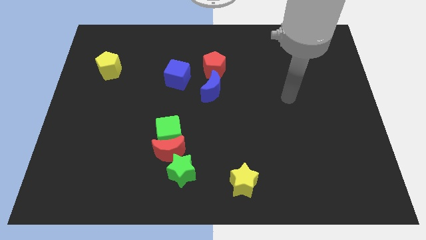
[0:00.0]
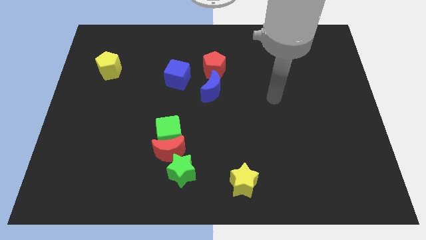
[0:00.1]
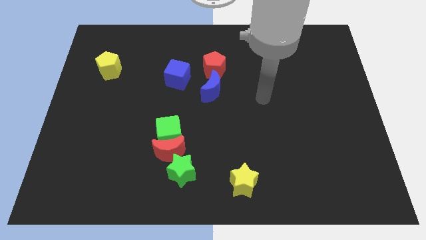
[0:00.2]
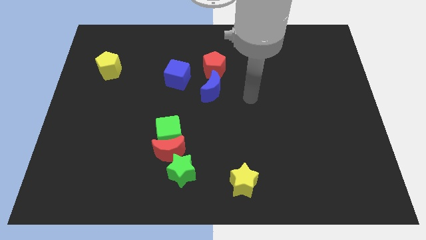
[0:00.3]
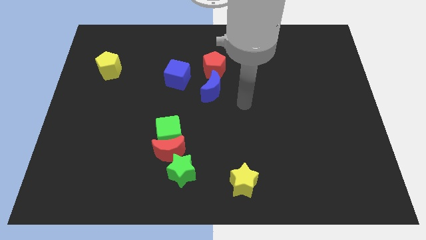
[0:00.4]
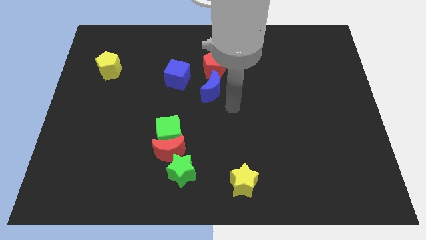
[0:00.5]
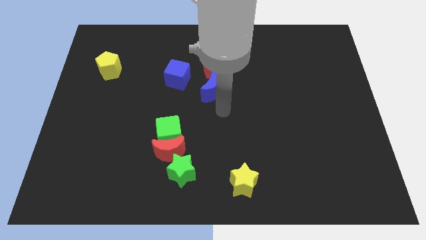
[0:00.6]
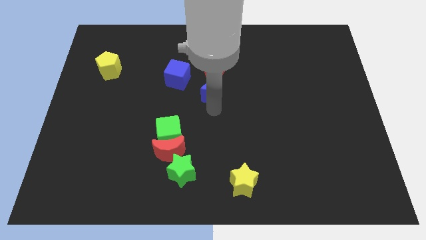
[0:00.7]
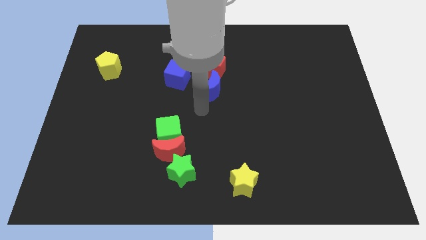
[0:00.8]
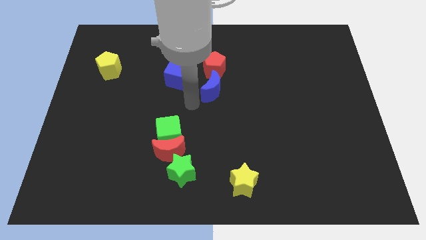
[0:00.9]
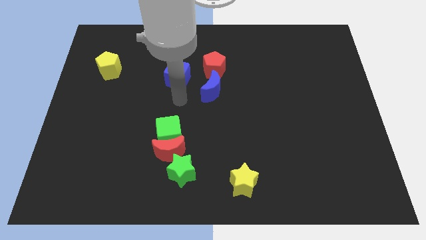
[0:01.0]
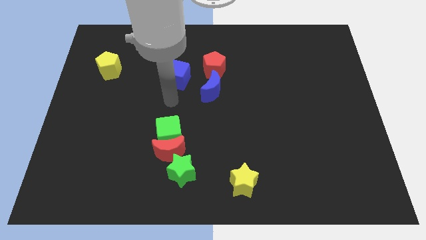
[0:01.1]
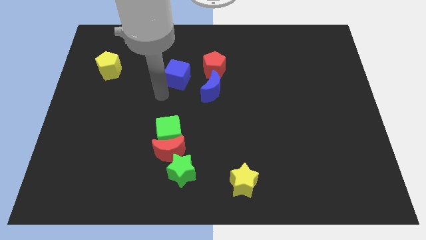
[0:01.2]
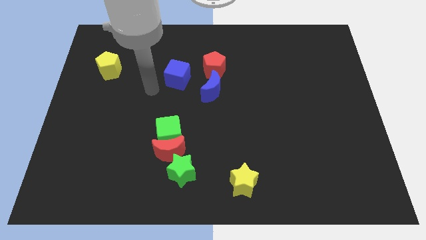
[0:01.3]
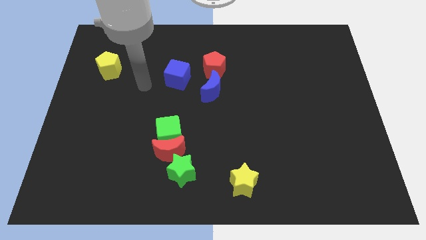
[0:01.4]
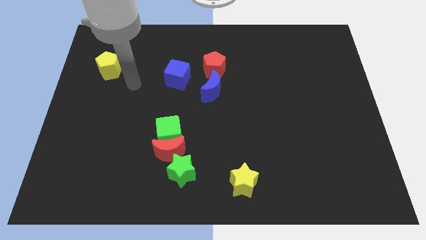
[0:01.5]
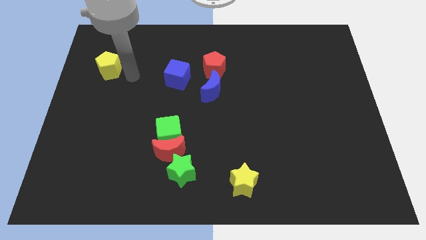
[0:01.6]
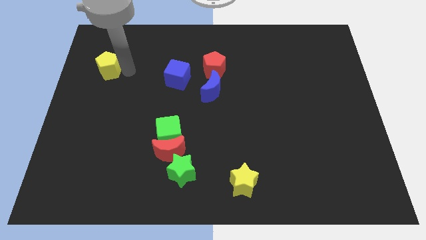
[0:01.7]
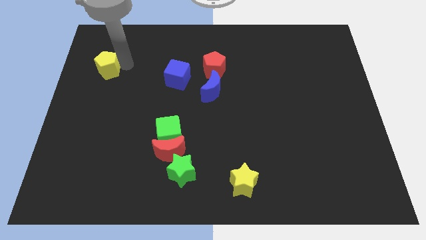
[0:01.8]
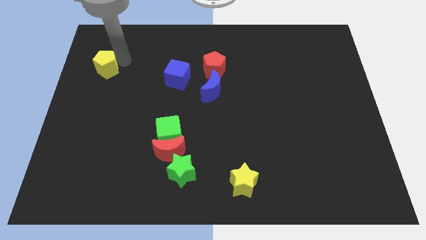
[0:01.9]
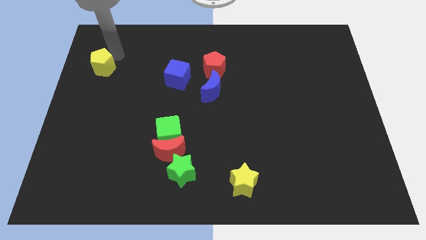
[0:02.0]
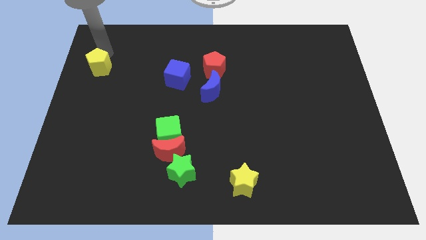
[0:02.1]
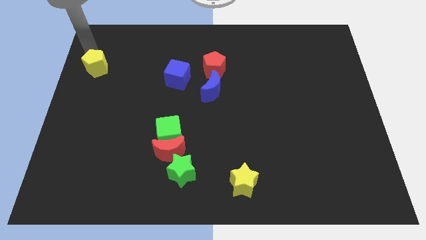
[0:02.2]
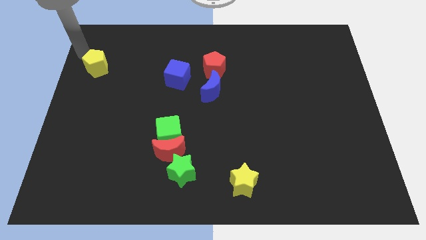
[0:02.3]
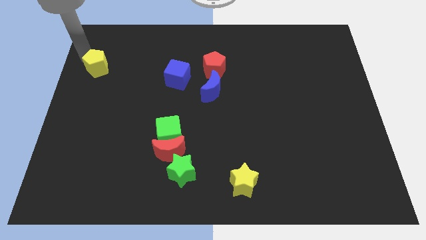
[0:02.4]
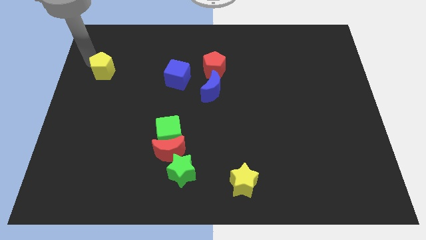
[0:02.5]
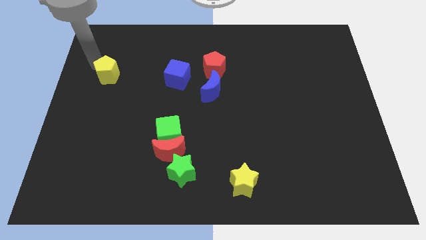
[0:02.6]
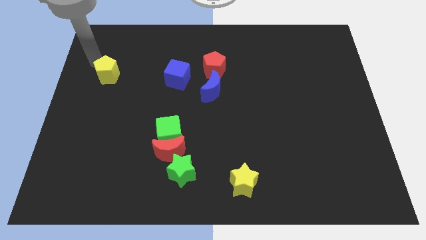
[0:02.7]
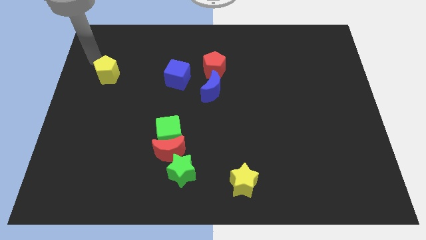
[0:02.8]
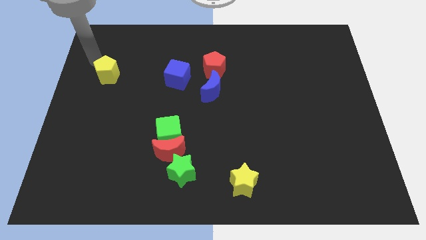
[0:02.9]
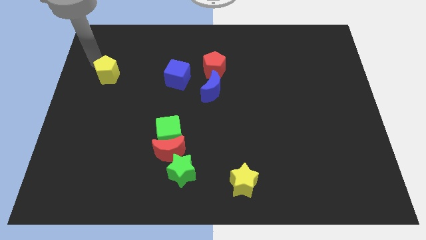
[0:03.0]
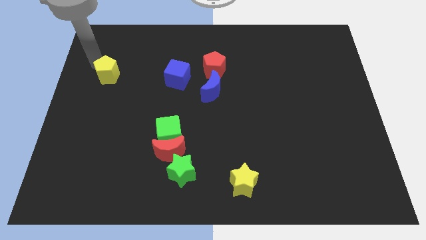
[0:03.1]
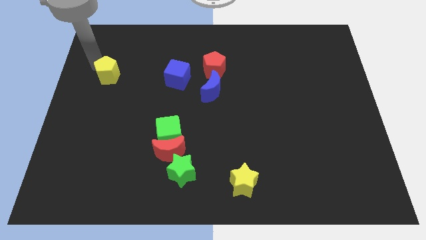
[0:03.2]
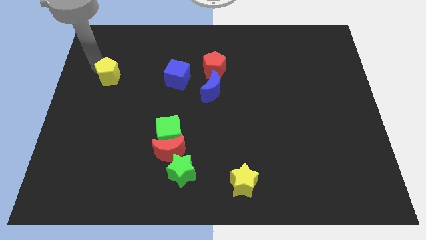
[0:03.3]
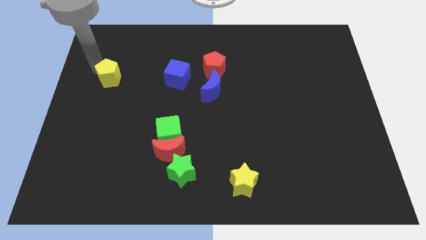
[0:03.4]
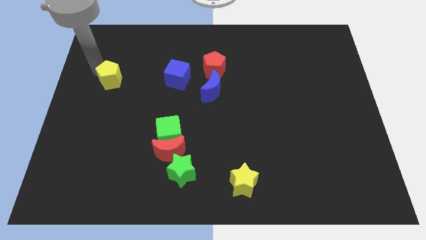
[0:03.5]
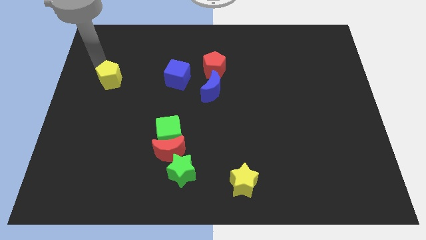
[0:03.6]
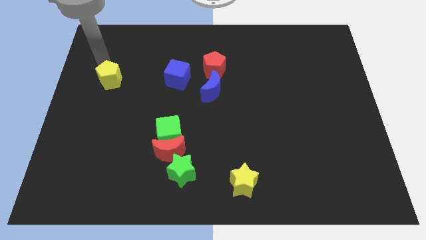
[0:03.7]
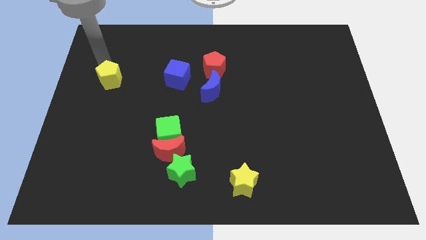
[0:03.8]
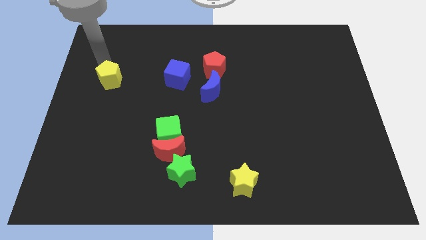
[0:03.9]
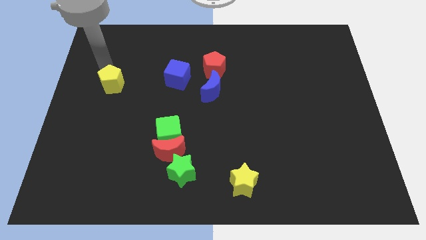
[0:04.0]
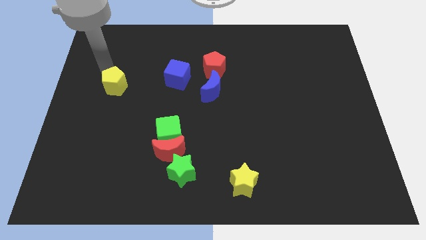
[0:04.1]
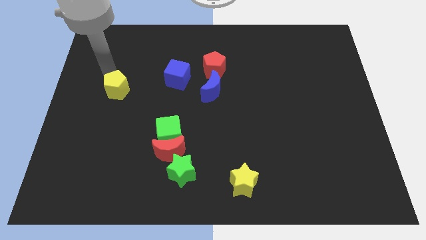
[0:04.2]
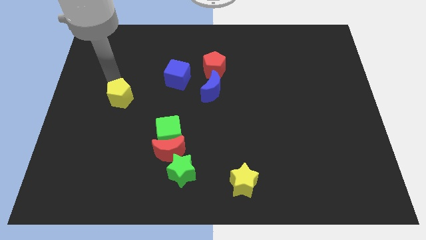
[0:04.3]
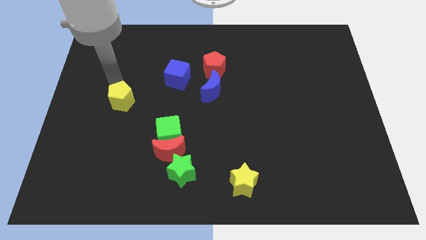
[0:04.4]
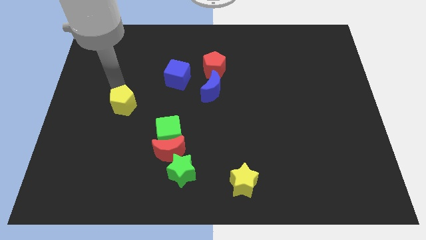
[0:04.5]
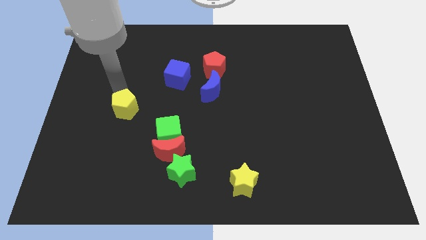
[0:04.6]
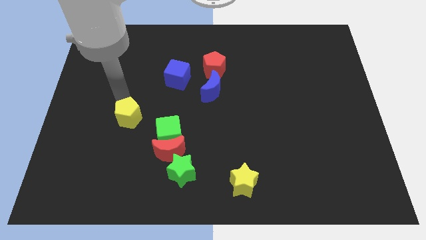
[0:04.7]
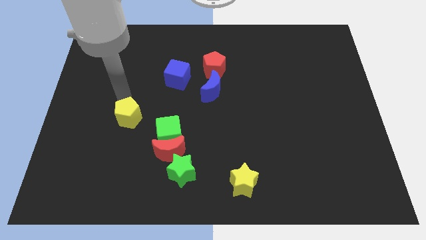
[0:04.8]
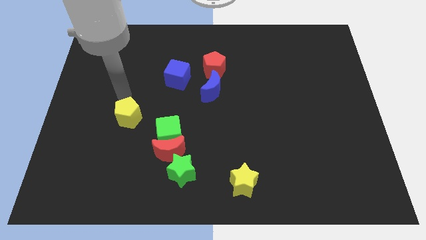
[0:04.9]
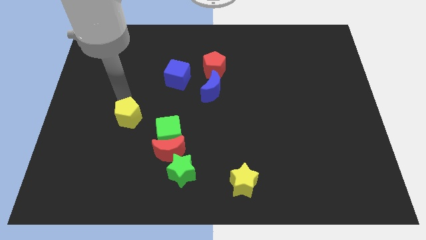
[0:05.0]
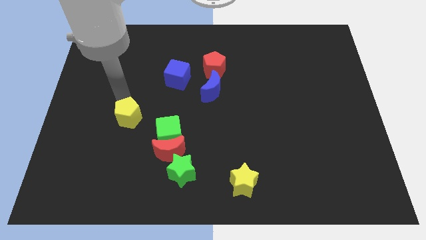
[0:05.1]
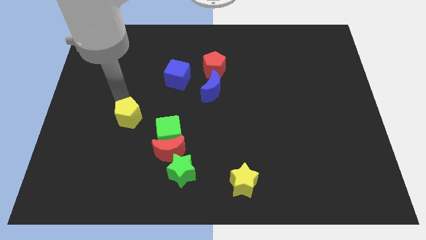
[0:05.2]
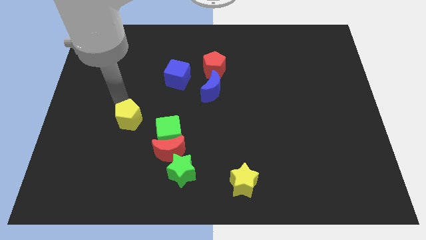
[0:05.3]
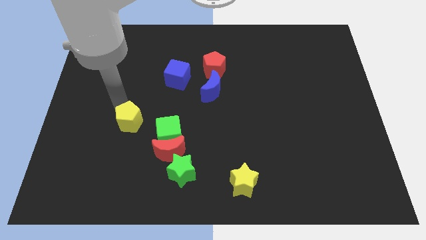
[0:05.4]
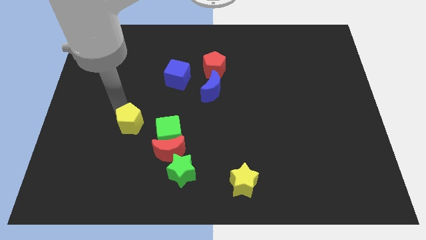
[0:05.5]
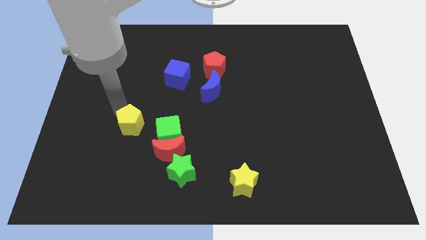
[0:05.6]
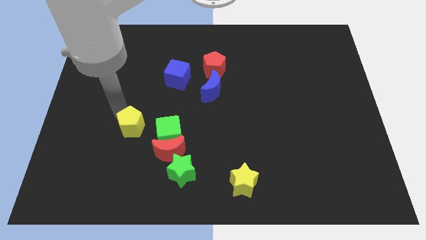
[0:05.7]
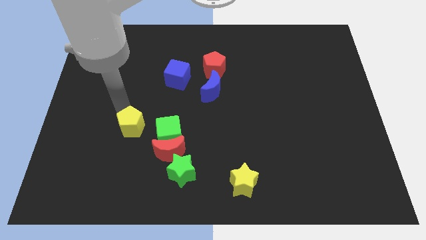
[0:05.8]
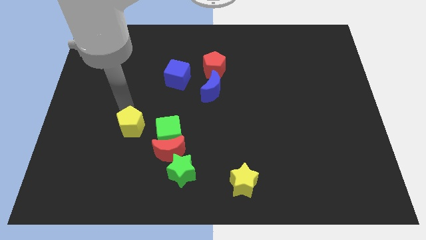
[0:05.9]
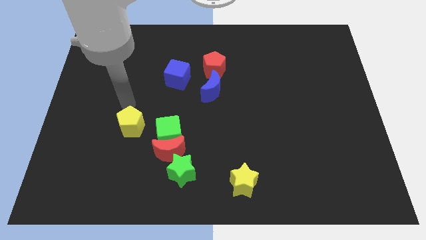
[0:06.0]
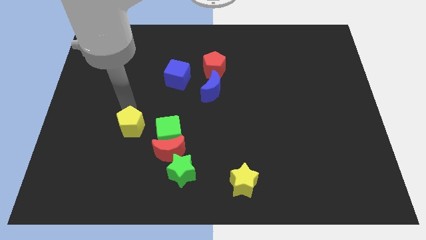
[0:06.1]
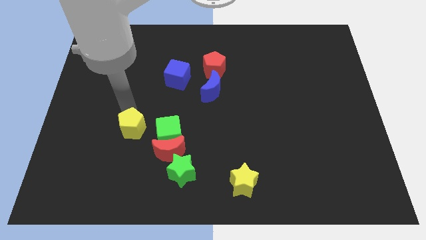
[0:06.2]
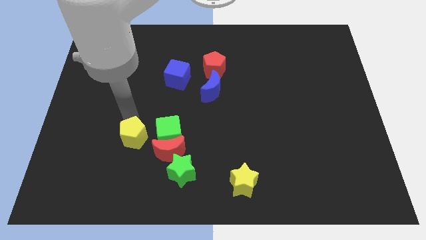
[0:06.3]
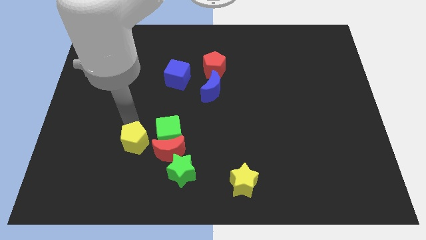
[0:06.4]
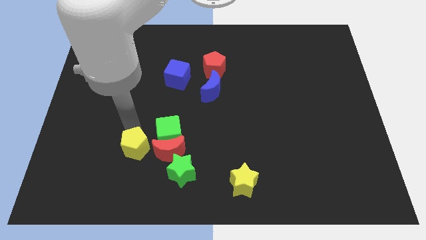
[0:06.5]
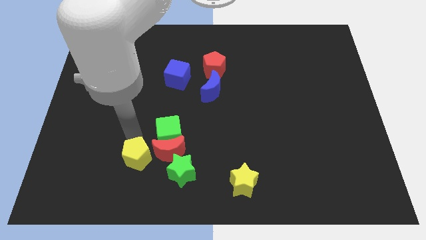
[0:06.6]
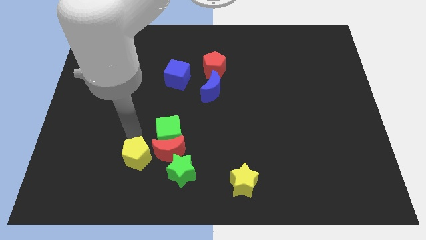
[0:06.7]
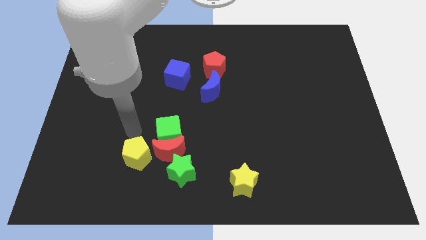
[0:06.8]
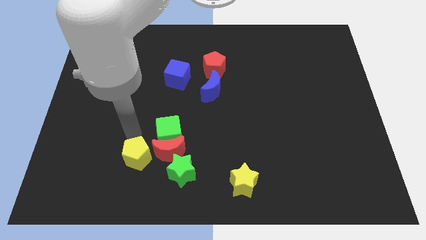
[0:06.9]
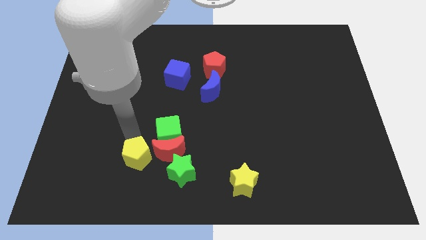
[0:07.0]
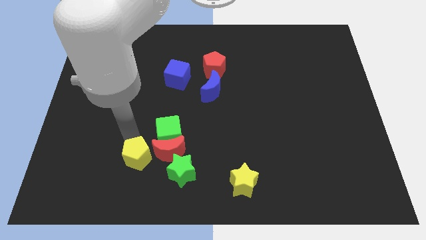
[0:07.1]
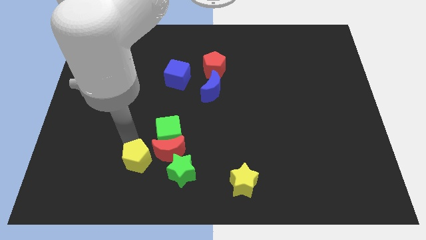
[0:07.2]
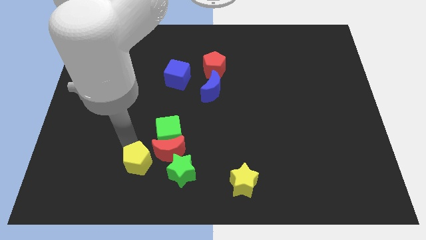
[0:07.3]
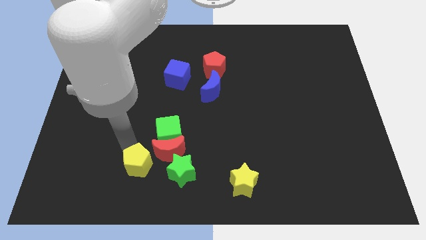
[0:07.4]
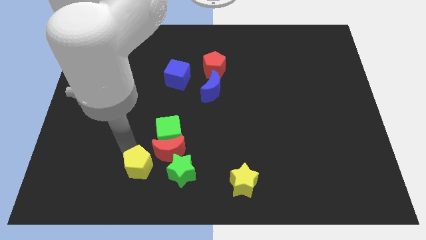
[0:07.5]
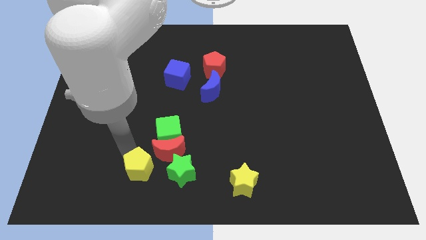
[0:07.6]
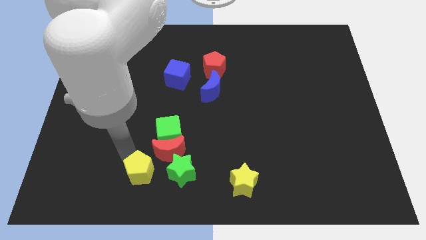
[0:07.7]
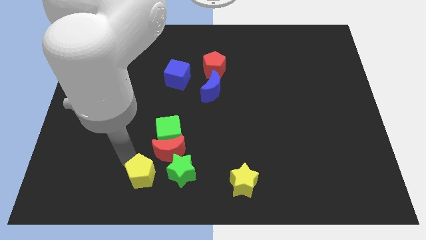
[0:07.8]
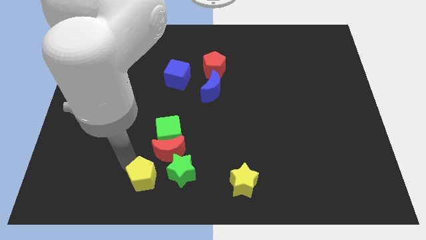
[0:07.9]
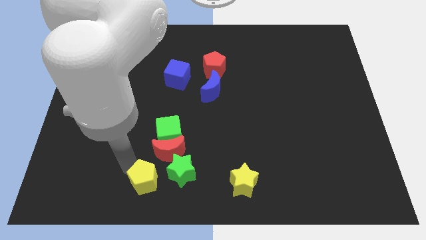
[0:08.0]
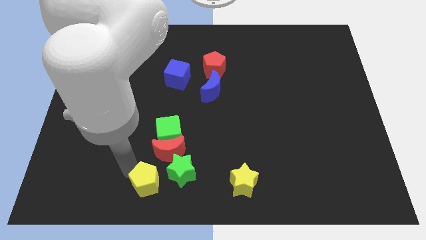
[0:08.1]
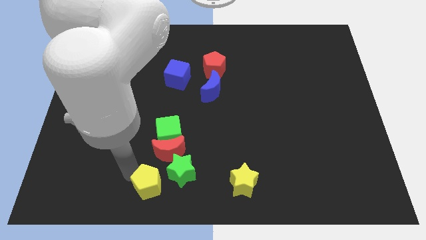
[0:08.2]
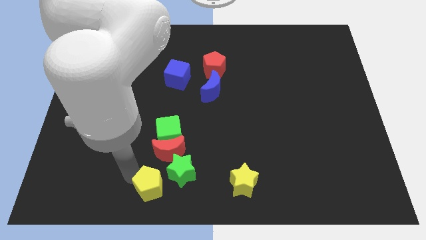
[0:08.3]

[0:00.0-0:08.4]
push the yellow pentagon to the bottom side
